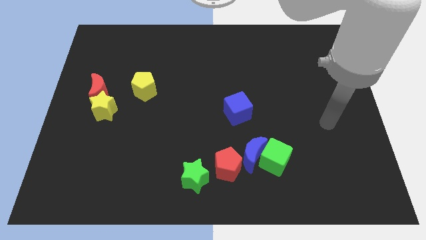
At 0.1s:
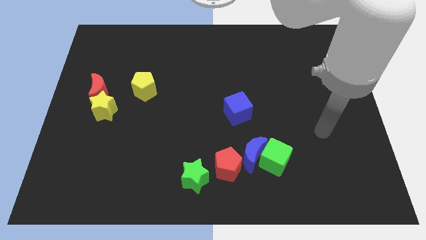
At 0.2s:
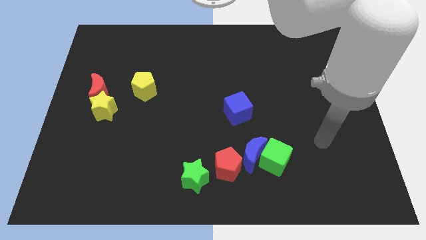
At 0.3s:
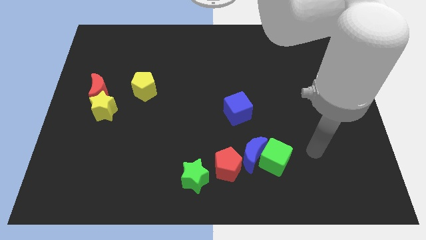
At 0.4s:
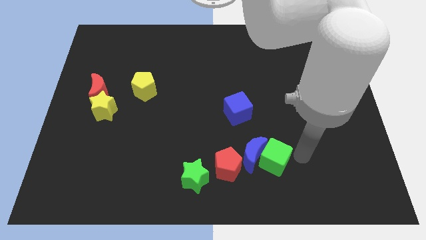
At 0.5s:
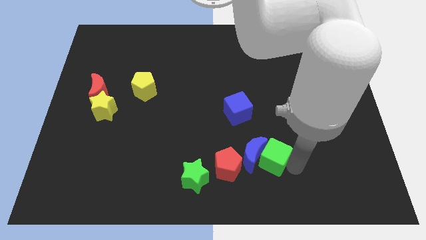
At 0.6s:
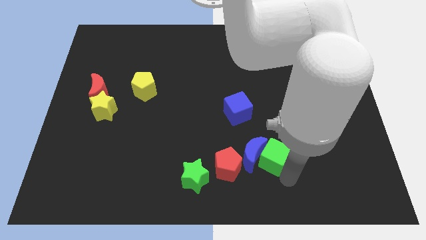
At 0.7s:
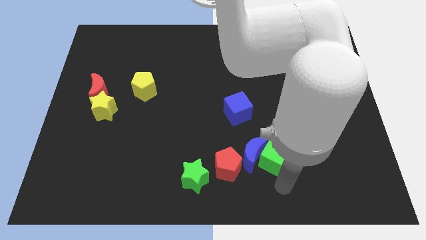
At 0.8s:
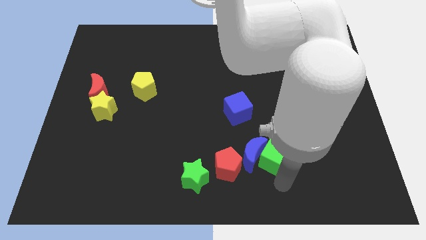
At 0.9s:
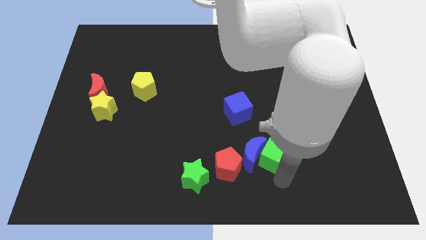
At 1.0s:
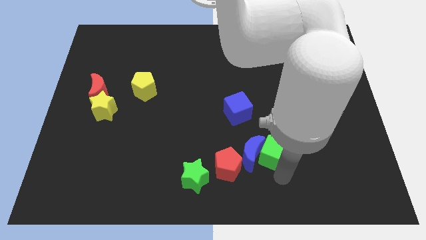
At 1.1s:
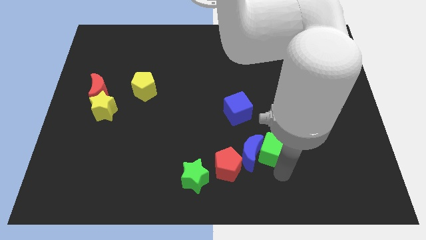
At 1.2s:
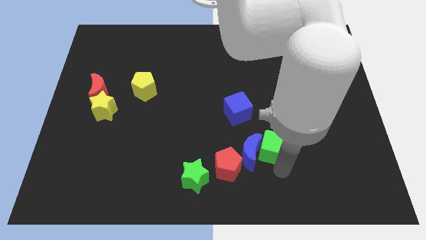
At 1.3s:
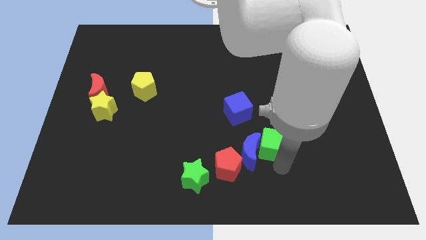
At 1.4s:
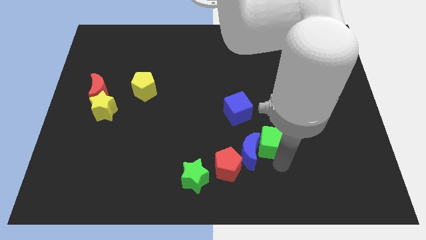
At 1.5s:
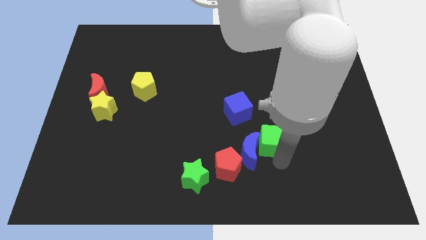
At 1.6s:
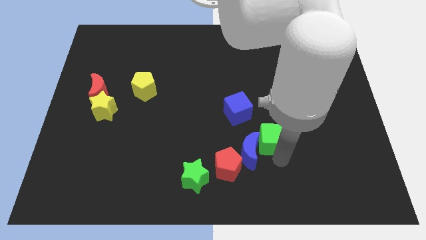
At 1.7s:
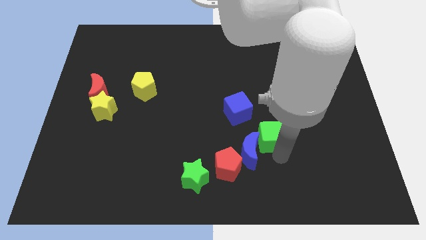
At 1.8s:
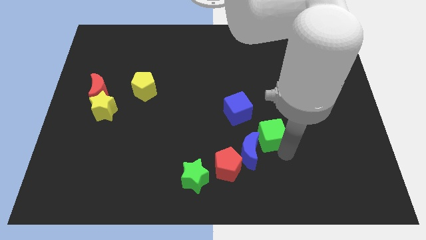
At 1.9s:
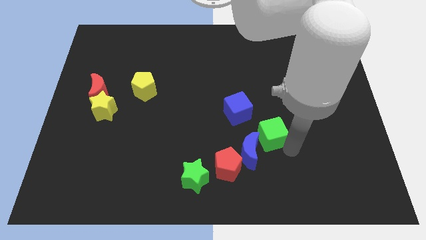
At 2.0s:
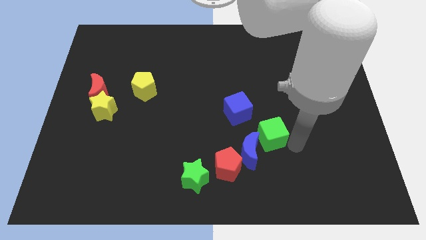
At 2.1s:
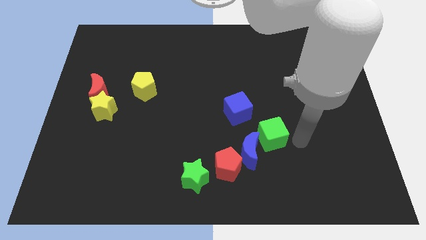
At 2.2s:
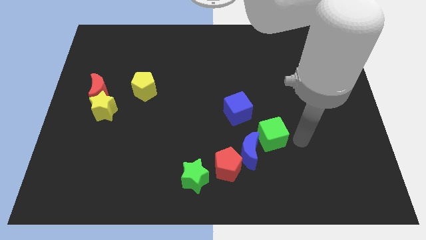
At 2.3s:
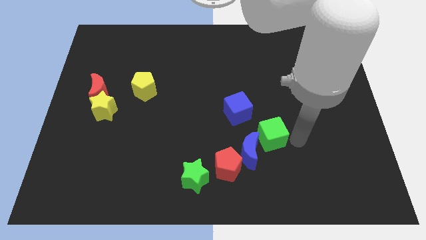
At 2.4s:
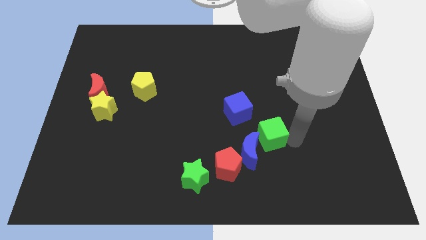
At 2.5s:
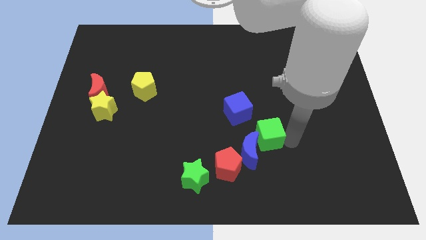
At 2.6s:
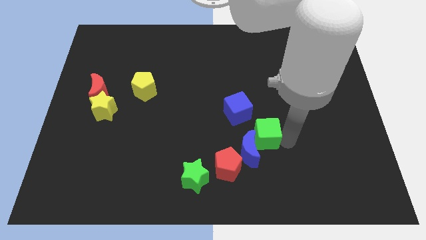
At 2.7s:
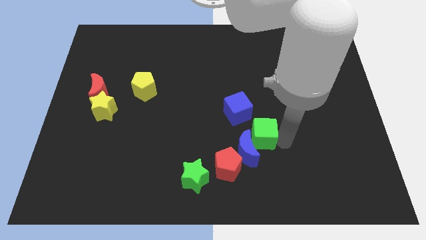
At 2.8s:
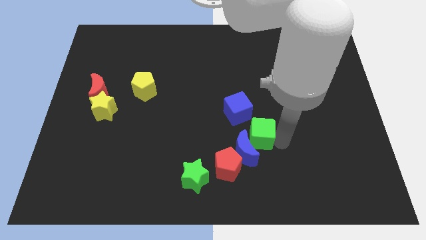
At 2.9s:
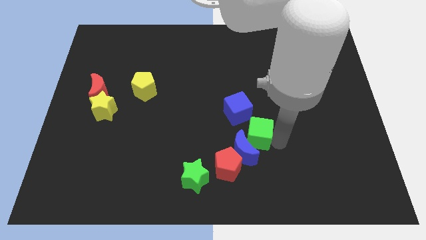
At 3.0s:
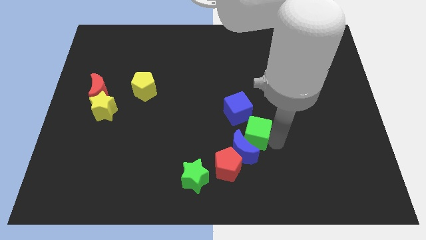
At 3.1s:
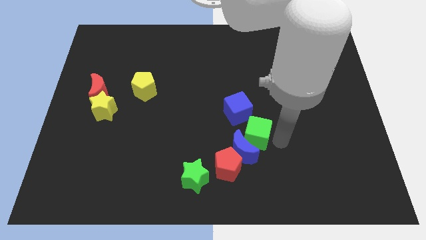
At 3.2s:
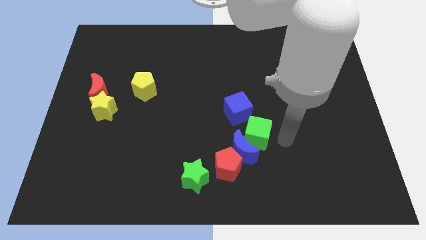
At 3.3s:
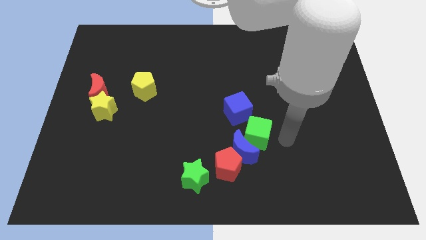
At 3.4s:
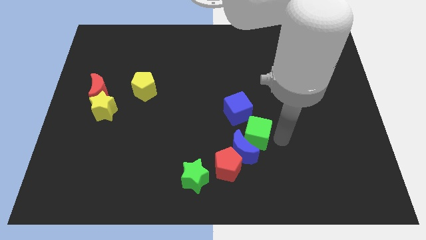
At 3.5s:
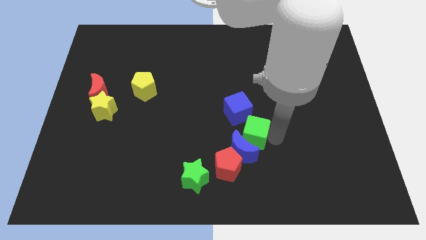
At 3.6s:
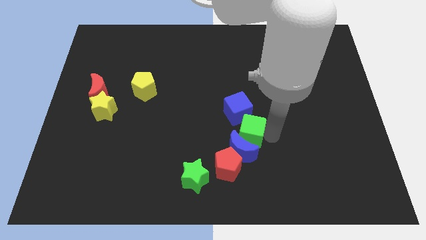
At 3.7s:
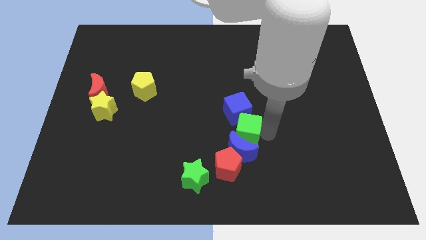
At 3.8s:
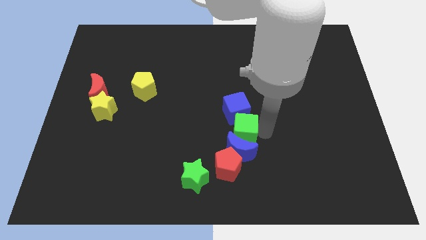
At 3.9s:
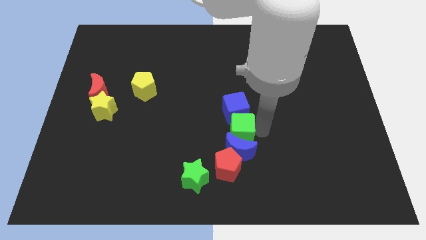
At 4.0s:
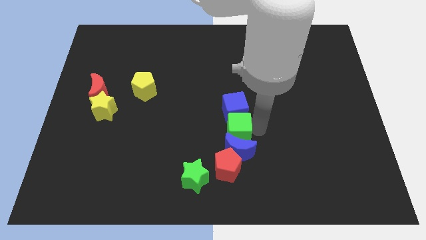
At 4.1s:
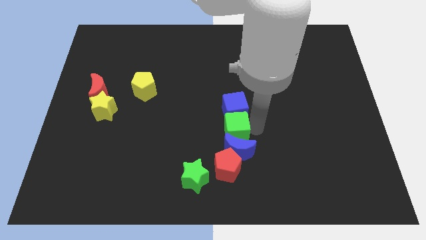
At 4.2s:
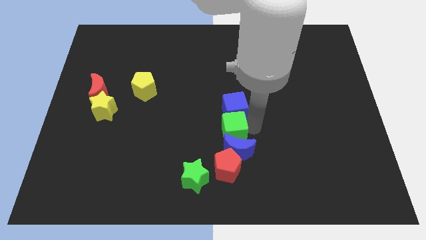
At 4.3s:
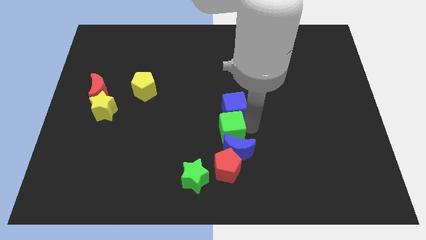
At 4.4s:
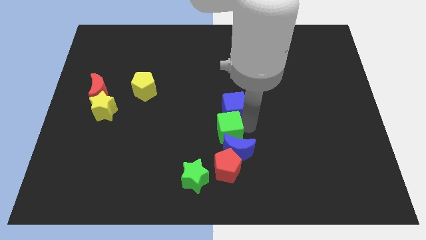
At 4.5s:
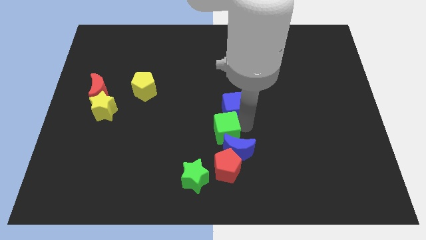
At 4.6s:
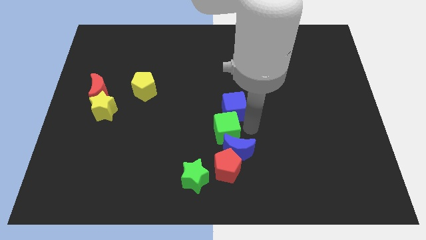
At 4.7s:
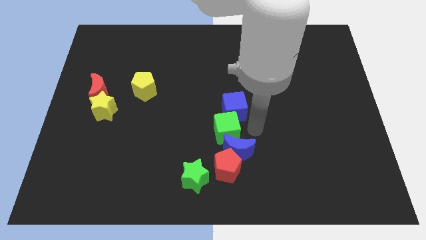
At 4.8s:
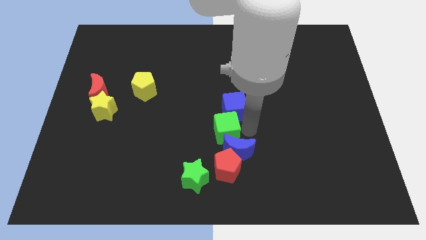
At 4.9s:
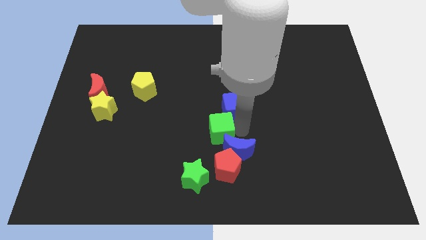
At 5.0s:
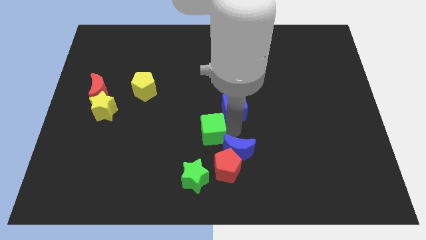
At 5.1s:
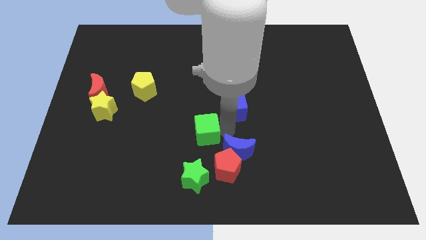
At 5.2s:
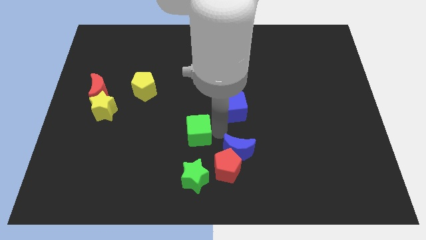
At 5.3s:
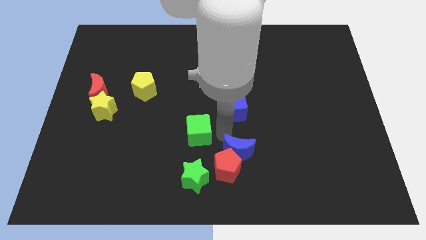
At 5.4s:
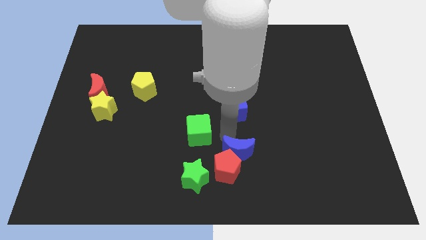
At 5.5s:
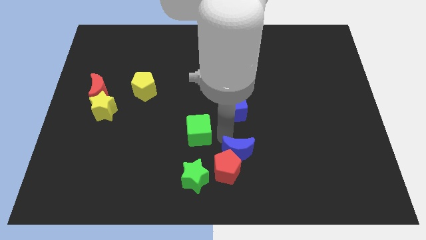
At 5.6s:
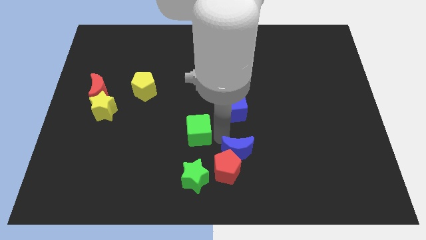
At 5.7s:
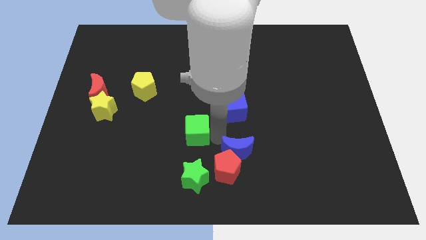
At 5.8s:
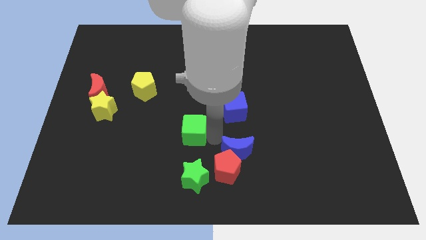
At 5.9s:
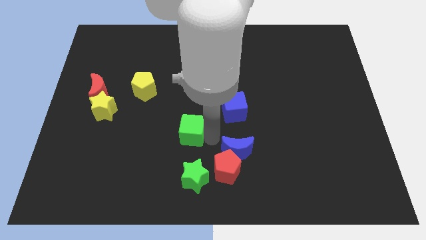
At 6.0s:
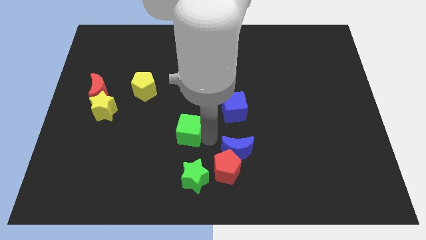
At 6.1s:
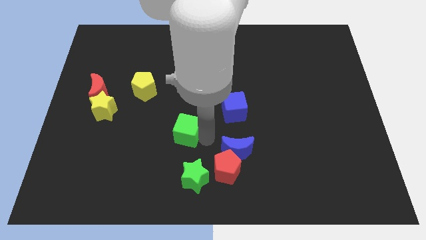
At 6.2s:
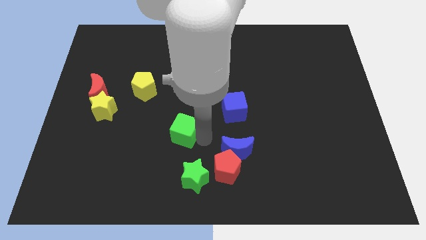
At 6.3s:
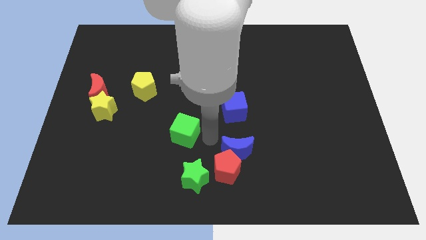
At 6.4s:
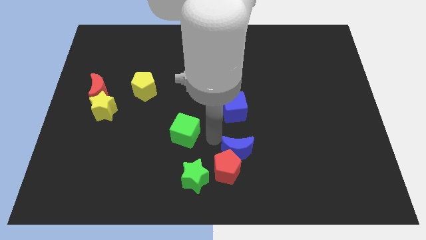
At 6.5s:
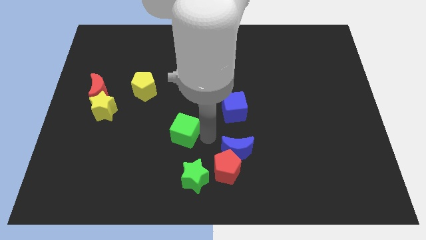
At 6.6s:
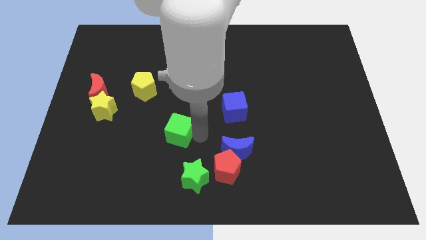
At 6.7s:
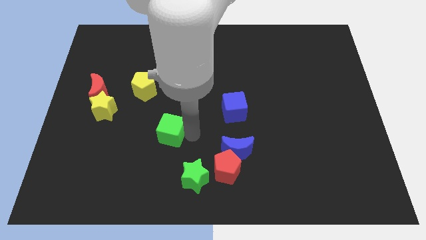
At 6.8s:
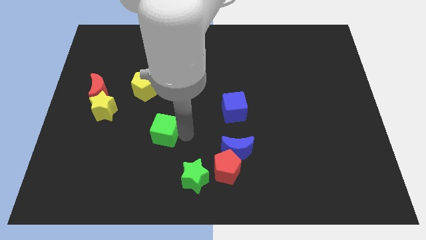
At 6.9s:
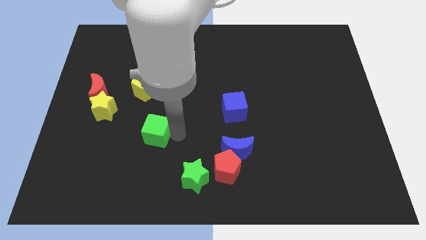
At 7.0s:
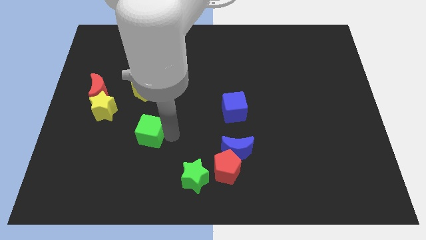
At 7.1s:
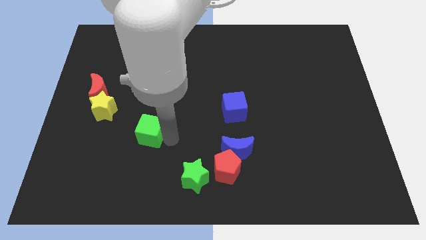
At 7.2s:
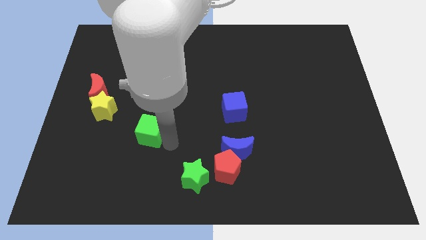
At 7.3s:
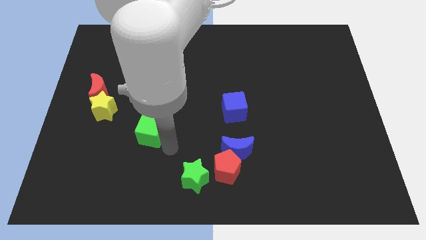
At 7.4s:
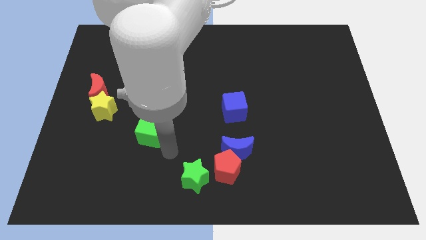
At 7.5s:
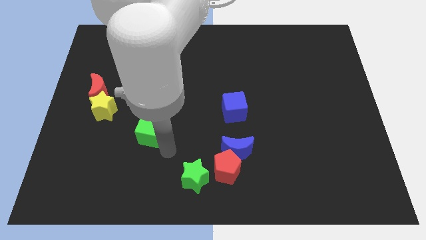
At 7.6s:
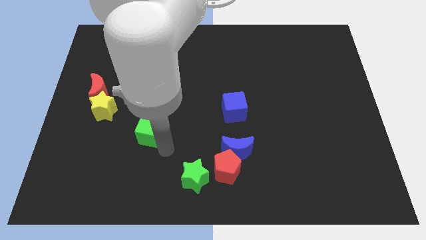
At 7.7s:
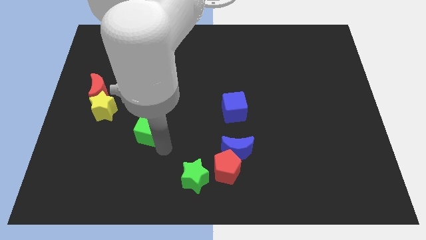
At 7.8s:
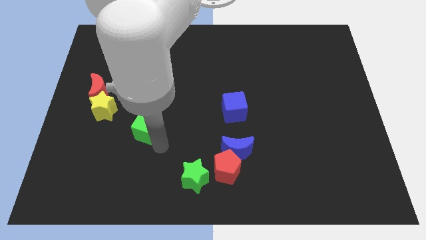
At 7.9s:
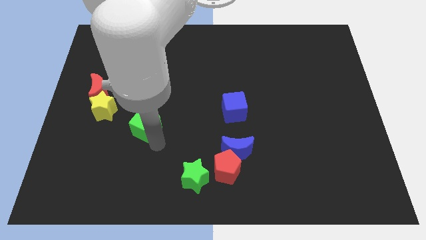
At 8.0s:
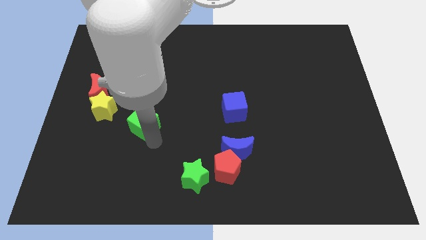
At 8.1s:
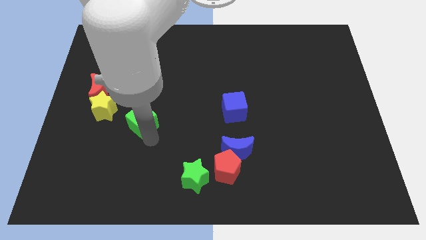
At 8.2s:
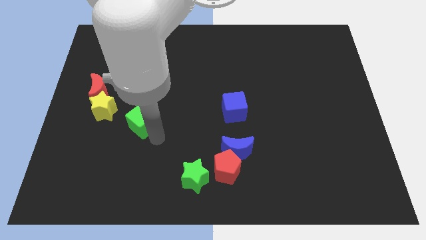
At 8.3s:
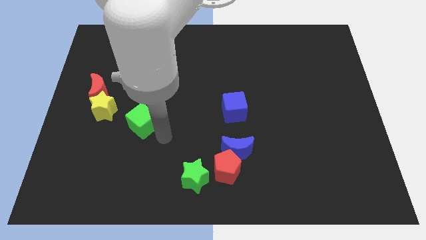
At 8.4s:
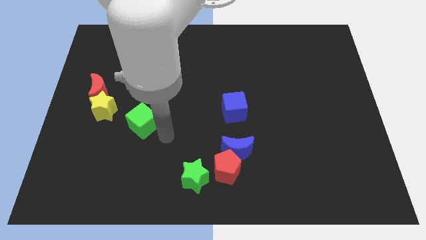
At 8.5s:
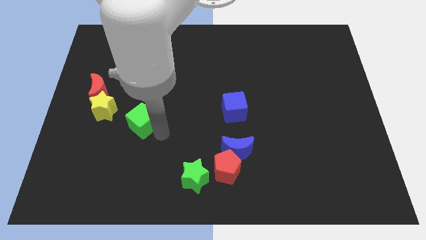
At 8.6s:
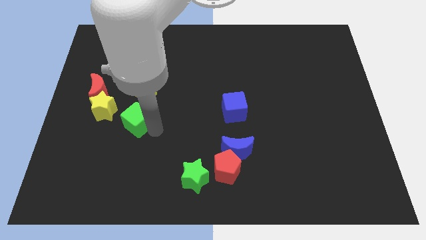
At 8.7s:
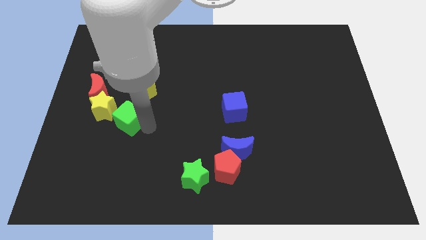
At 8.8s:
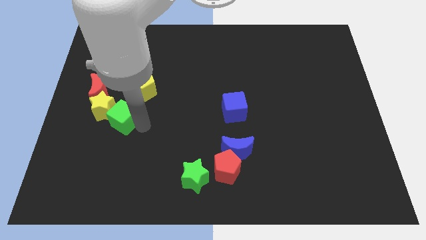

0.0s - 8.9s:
push the green cube close to the yellow star
